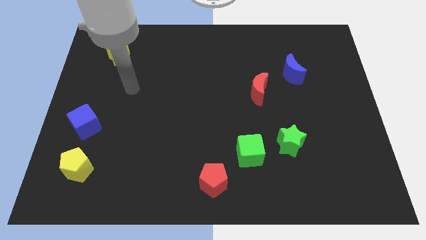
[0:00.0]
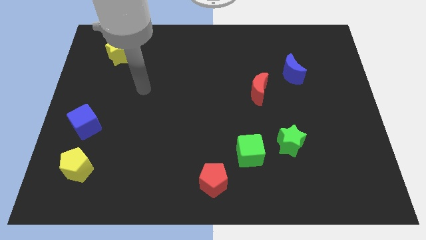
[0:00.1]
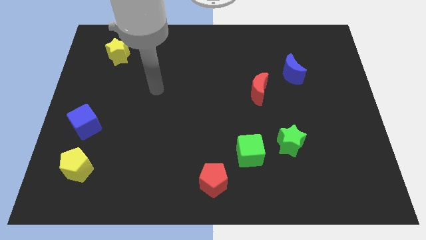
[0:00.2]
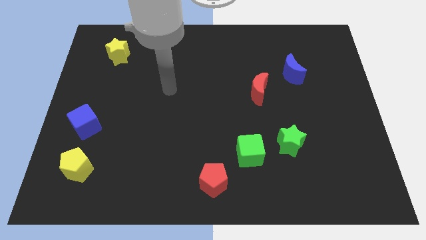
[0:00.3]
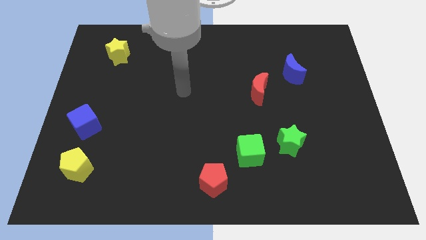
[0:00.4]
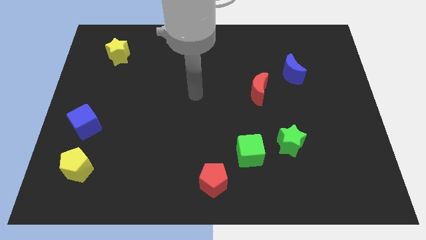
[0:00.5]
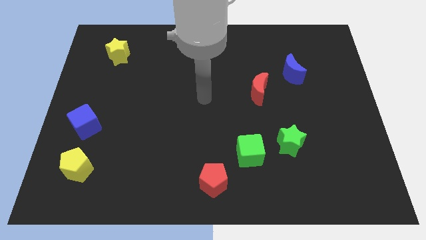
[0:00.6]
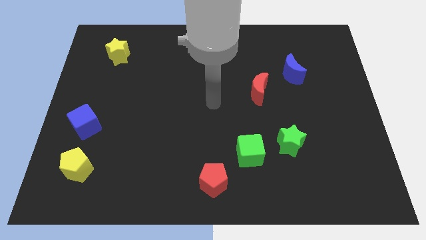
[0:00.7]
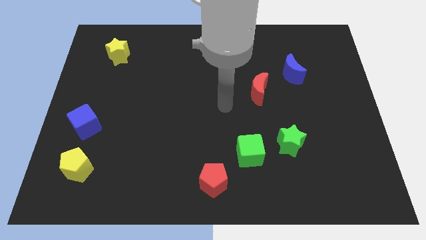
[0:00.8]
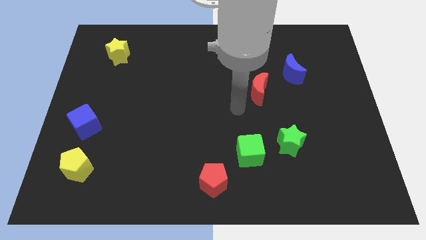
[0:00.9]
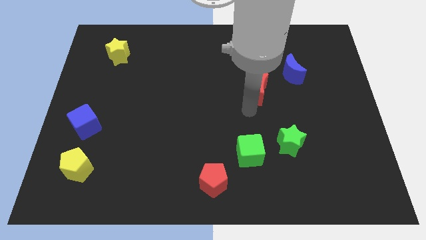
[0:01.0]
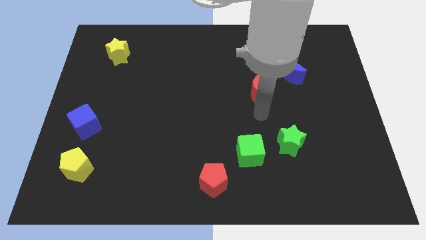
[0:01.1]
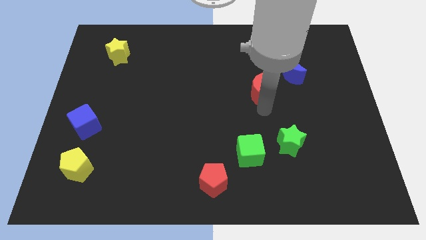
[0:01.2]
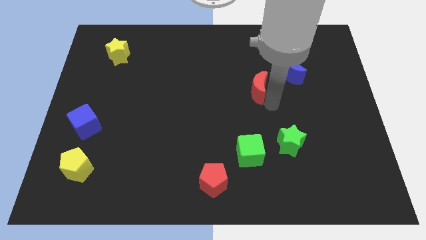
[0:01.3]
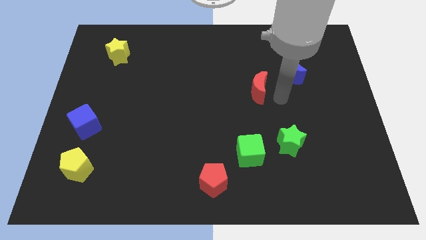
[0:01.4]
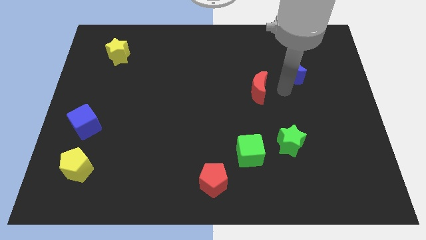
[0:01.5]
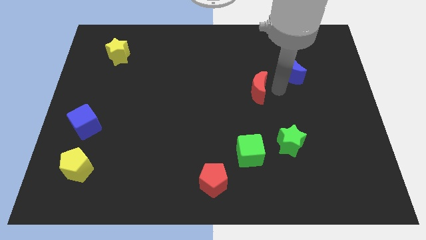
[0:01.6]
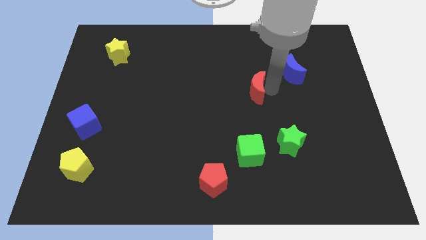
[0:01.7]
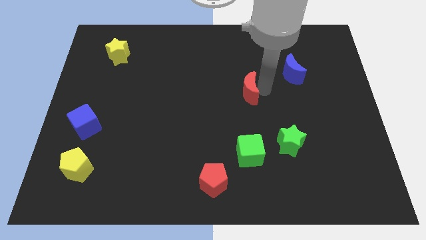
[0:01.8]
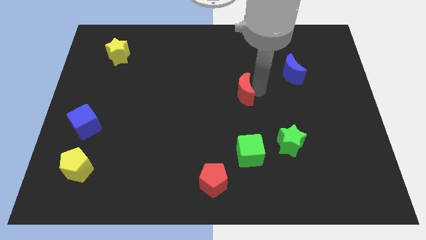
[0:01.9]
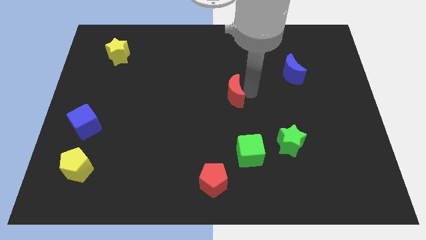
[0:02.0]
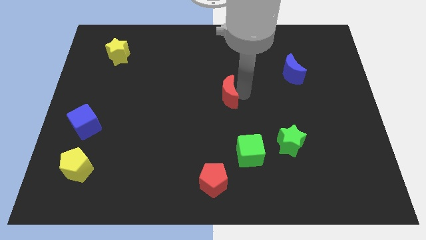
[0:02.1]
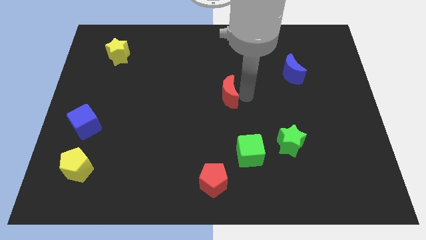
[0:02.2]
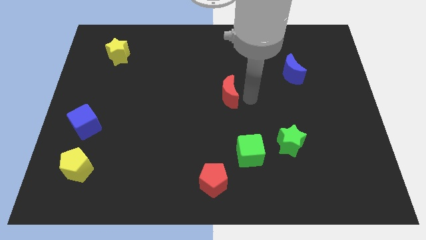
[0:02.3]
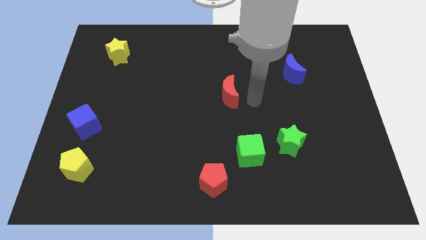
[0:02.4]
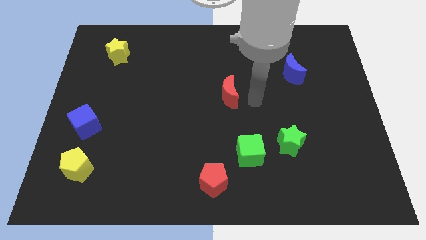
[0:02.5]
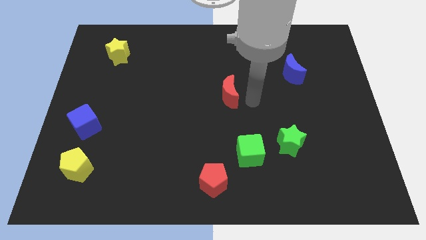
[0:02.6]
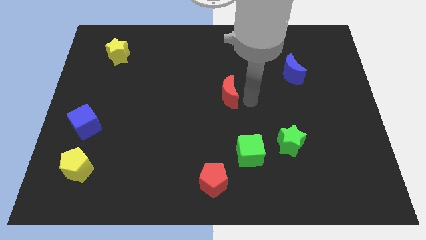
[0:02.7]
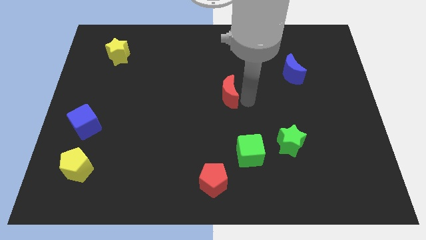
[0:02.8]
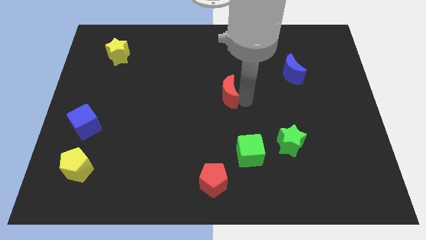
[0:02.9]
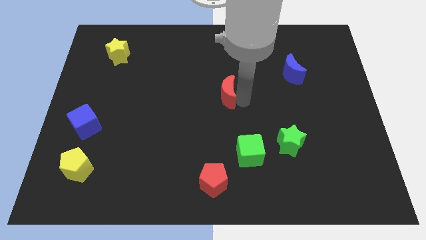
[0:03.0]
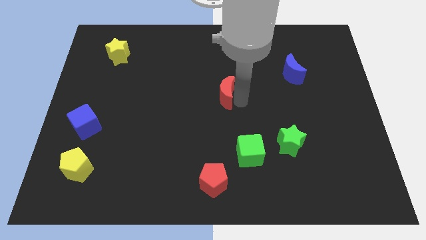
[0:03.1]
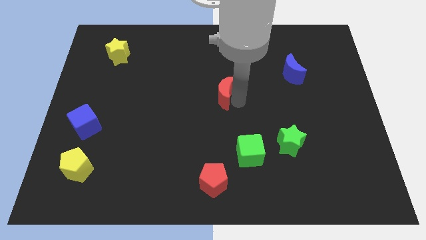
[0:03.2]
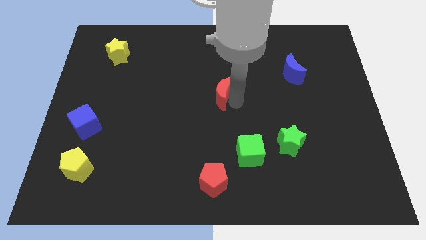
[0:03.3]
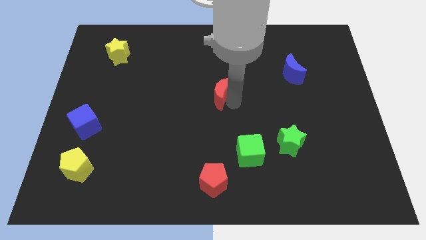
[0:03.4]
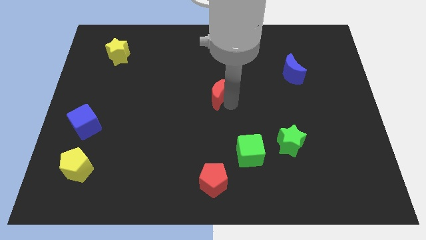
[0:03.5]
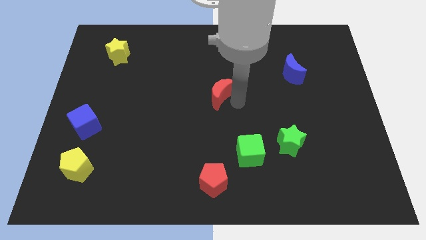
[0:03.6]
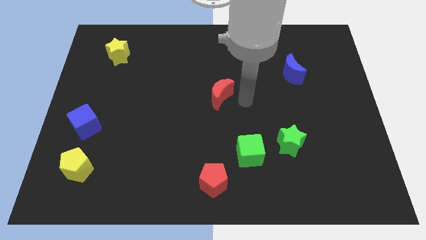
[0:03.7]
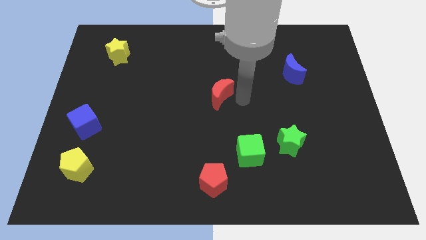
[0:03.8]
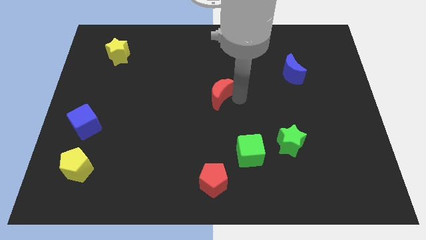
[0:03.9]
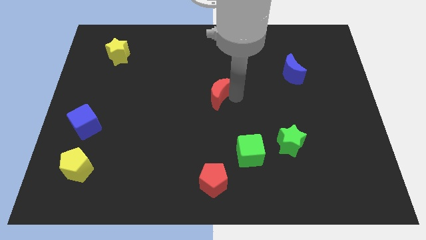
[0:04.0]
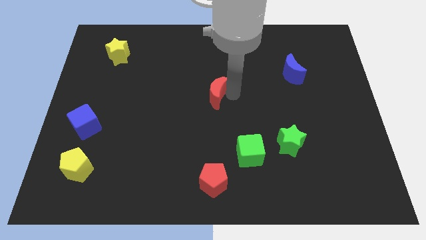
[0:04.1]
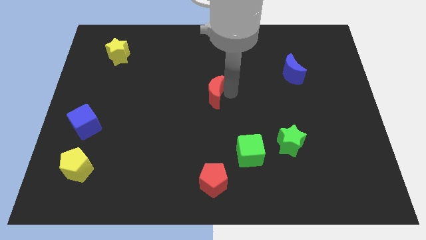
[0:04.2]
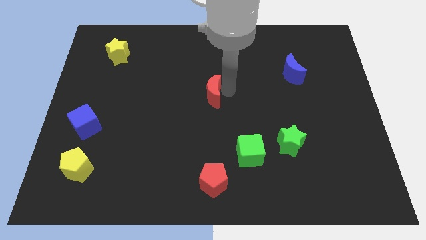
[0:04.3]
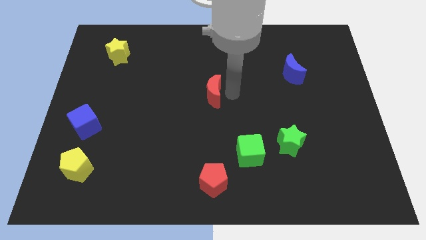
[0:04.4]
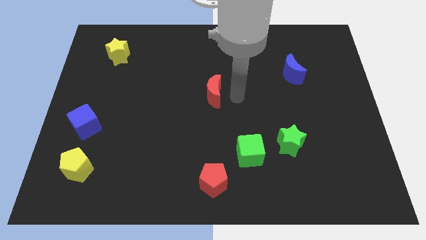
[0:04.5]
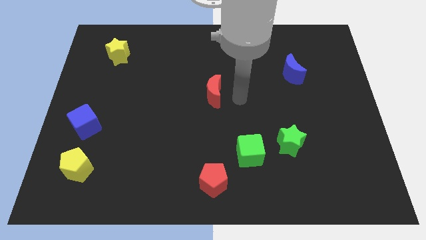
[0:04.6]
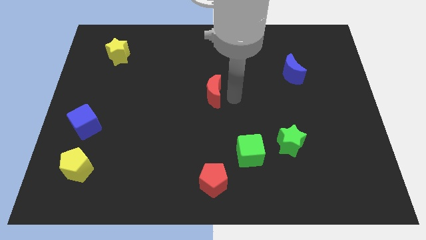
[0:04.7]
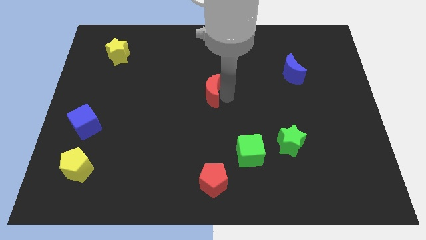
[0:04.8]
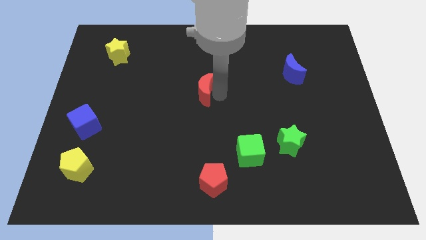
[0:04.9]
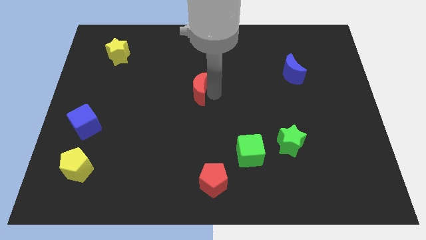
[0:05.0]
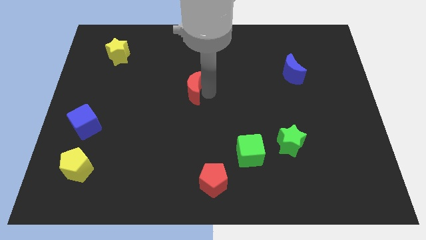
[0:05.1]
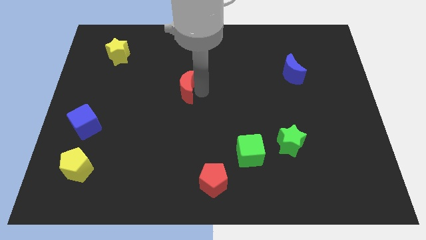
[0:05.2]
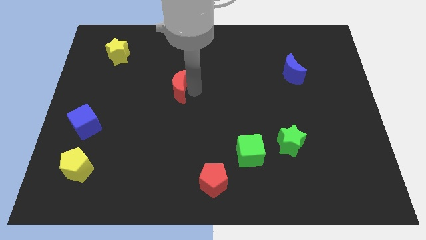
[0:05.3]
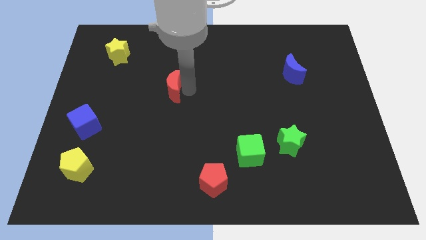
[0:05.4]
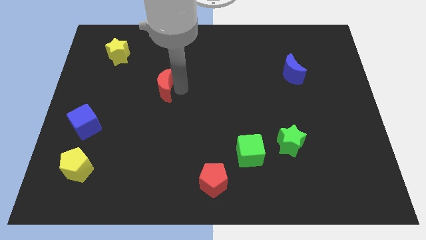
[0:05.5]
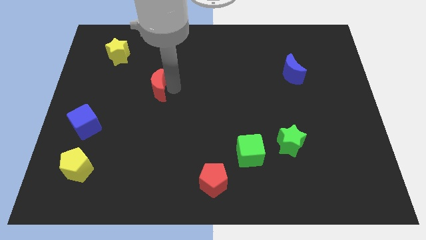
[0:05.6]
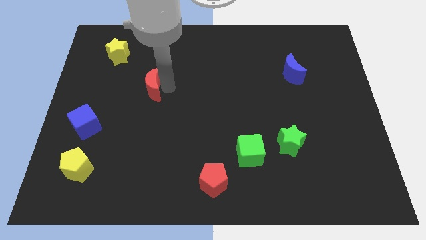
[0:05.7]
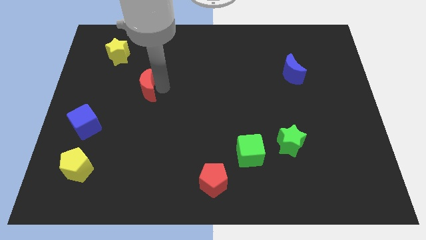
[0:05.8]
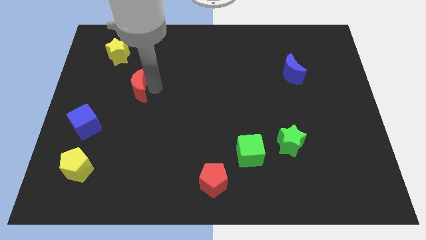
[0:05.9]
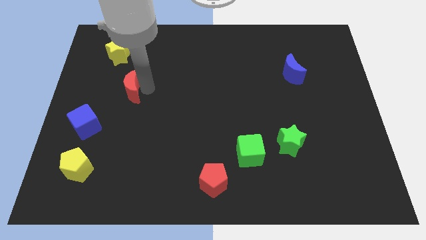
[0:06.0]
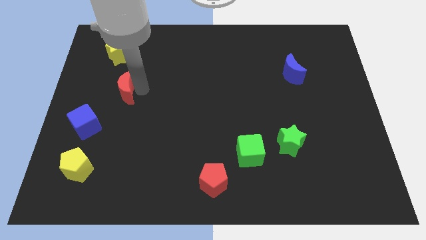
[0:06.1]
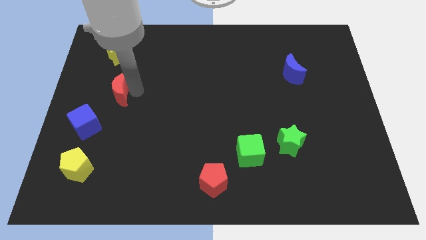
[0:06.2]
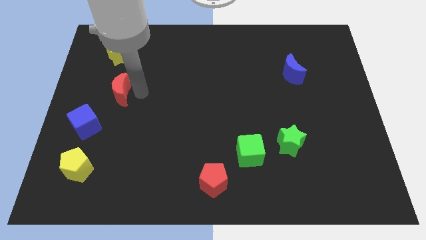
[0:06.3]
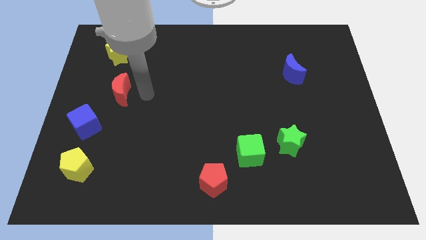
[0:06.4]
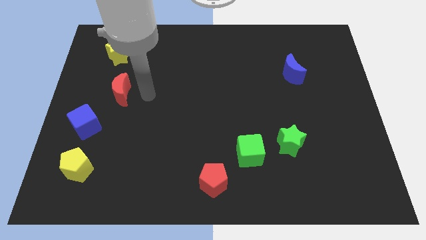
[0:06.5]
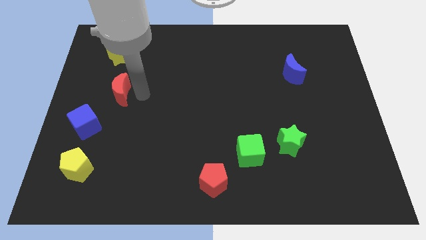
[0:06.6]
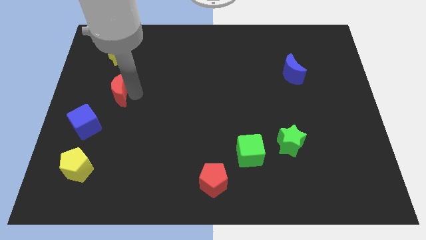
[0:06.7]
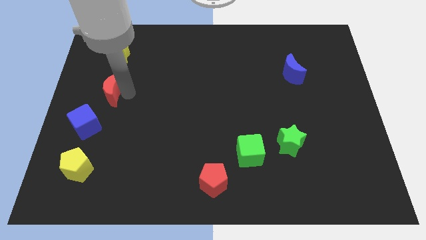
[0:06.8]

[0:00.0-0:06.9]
slide the red moon above the blue cube
